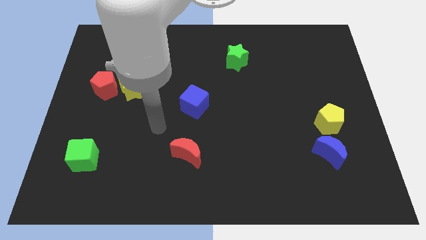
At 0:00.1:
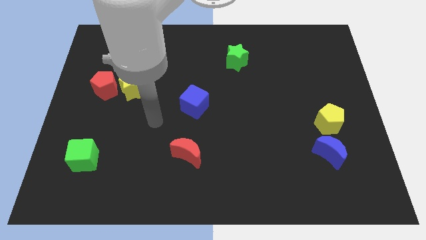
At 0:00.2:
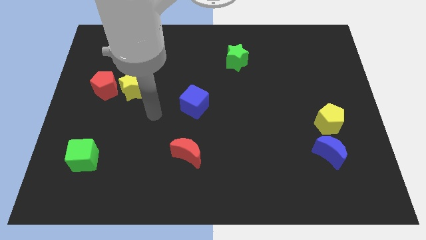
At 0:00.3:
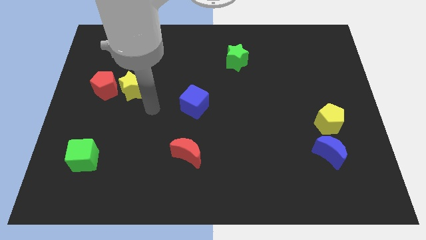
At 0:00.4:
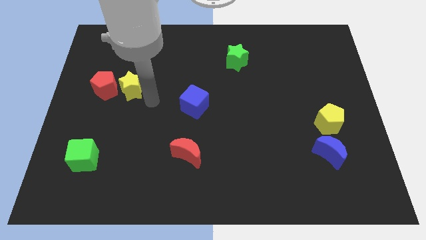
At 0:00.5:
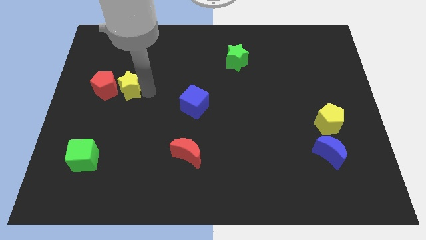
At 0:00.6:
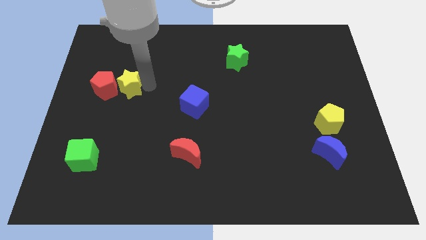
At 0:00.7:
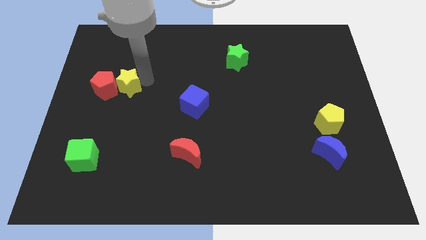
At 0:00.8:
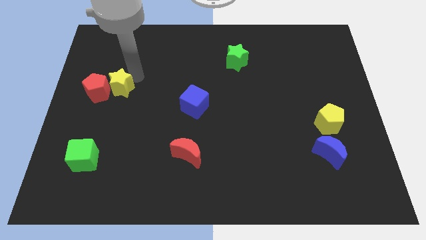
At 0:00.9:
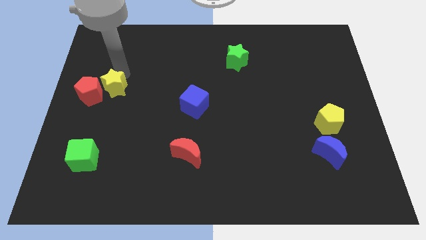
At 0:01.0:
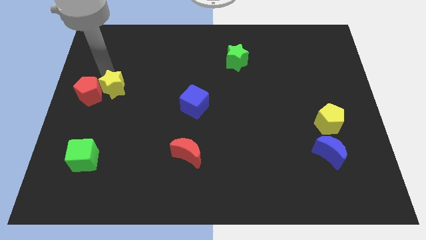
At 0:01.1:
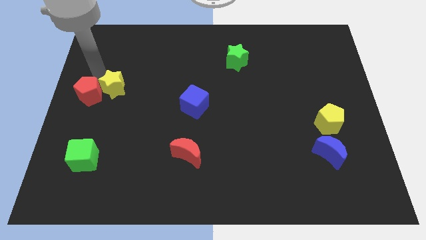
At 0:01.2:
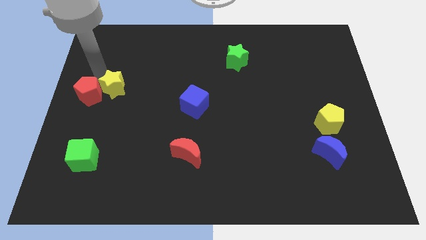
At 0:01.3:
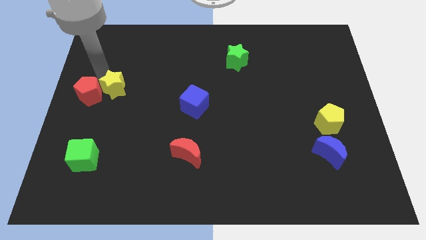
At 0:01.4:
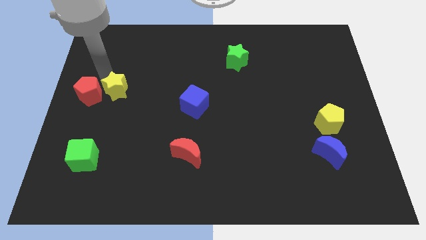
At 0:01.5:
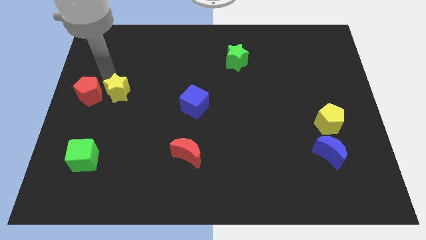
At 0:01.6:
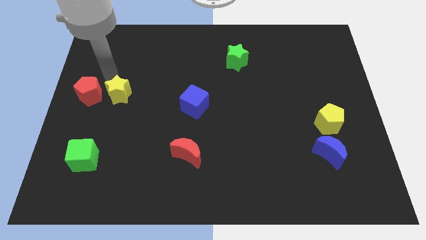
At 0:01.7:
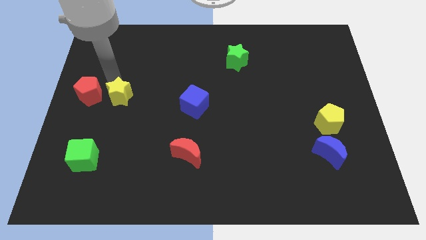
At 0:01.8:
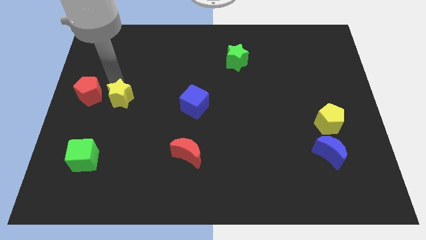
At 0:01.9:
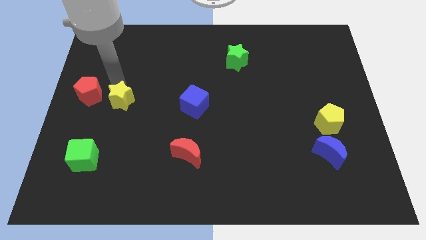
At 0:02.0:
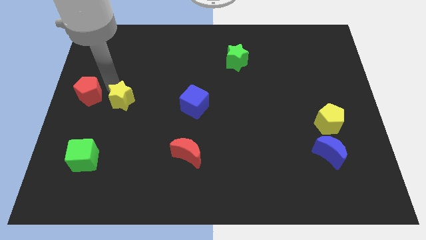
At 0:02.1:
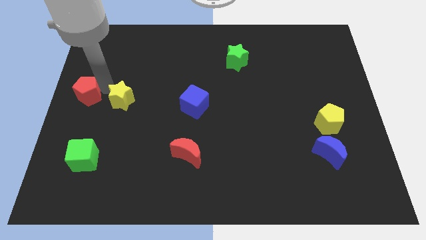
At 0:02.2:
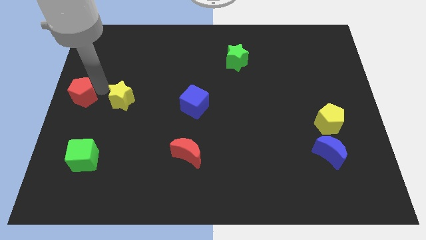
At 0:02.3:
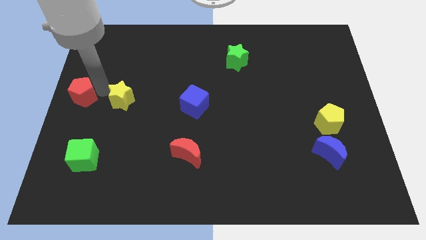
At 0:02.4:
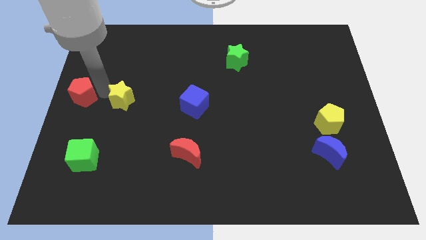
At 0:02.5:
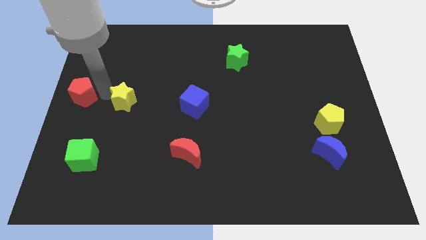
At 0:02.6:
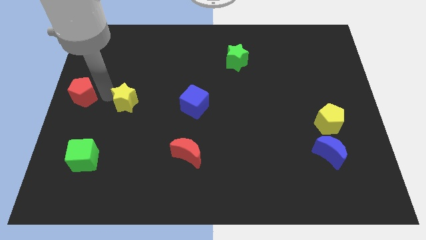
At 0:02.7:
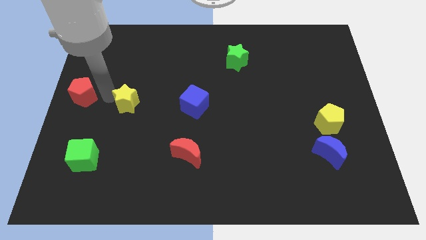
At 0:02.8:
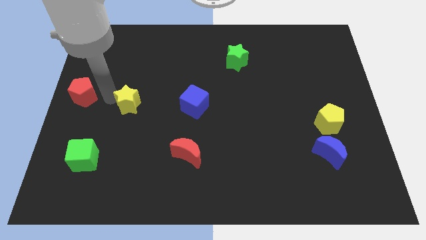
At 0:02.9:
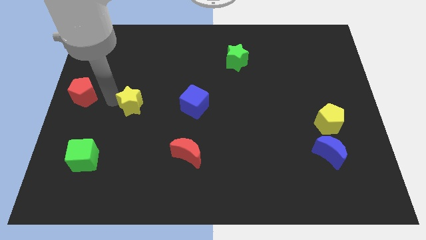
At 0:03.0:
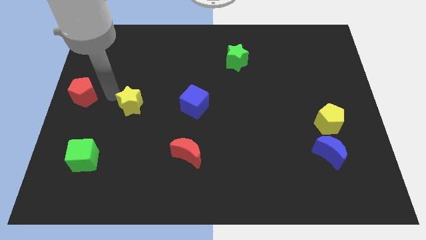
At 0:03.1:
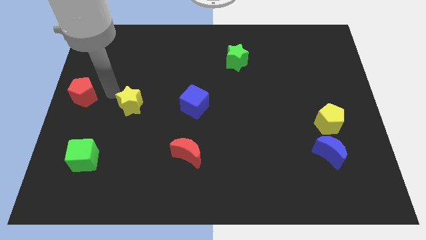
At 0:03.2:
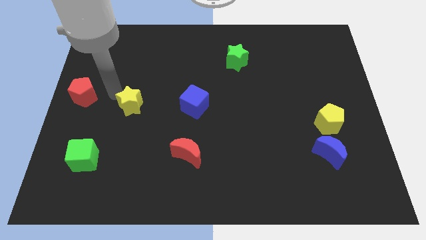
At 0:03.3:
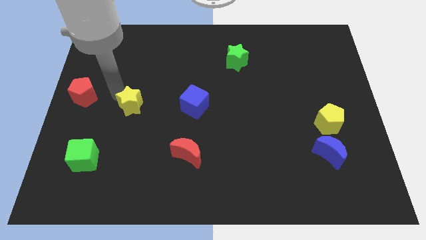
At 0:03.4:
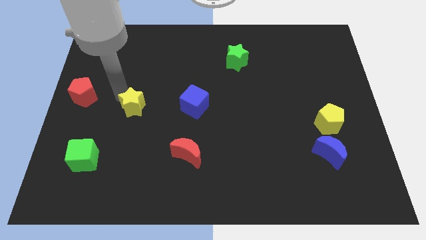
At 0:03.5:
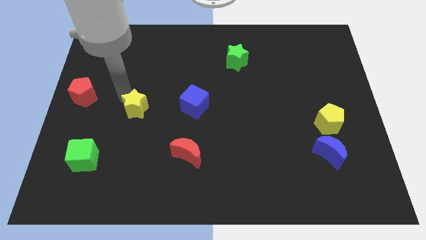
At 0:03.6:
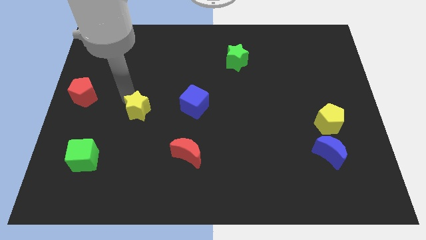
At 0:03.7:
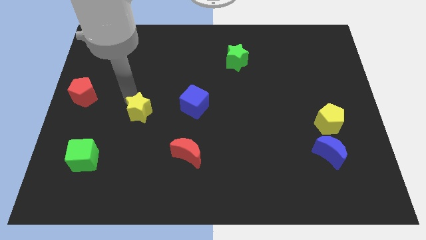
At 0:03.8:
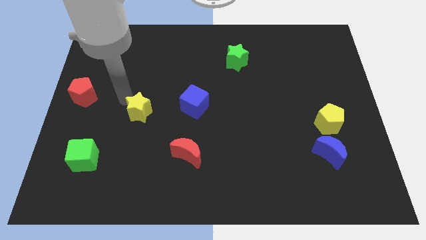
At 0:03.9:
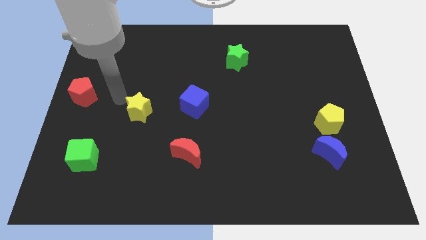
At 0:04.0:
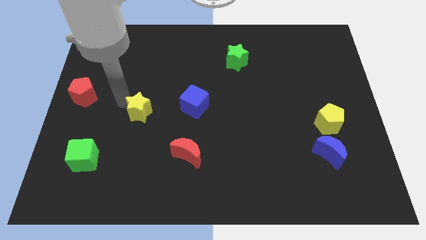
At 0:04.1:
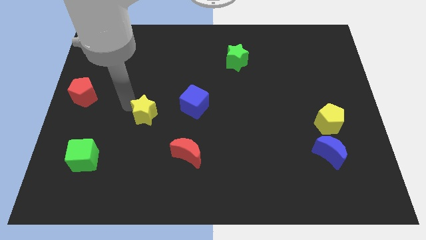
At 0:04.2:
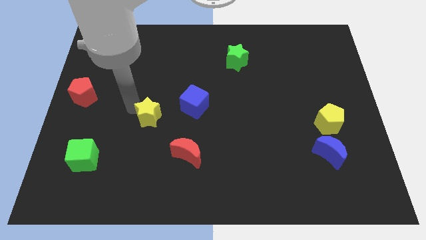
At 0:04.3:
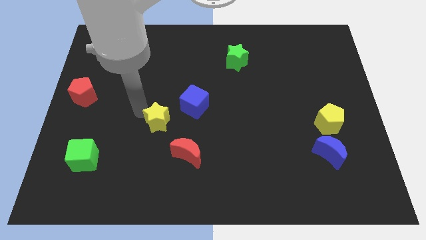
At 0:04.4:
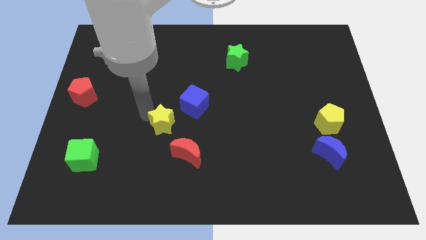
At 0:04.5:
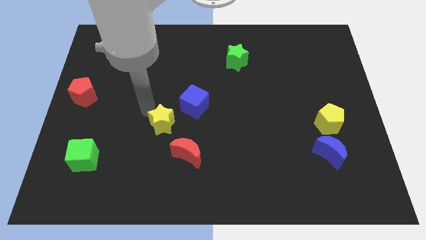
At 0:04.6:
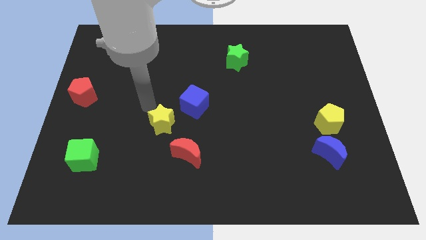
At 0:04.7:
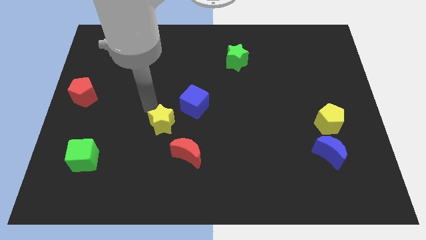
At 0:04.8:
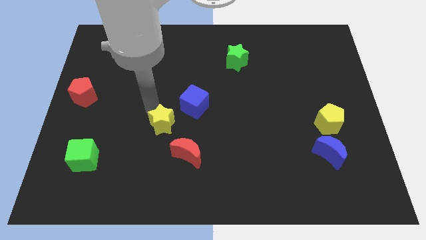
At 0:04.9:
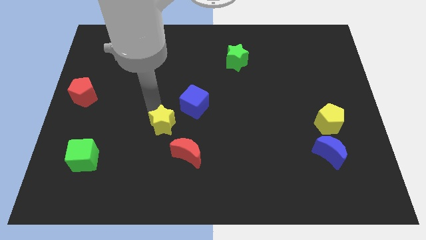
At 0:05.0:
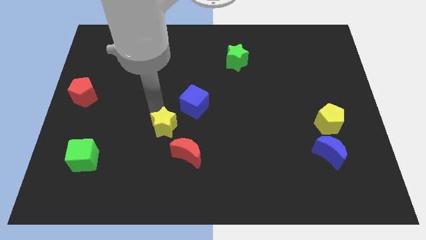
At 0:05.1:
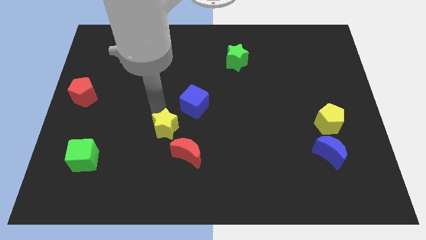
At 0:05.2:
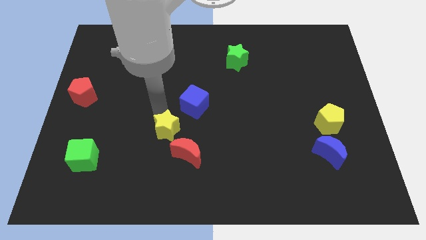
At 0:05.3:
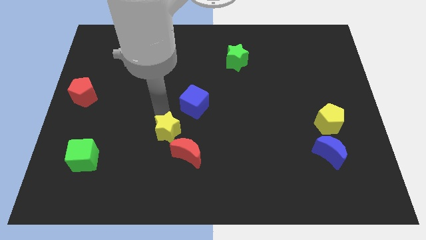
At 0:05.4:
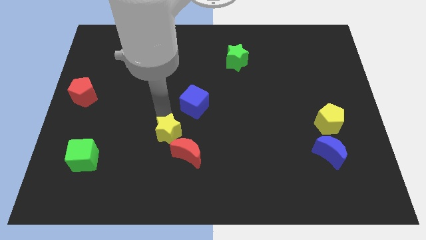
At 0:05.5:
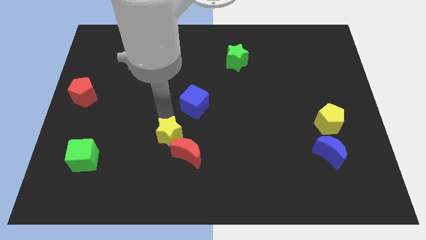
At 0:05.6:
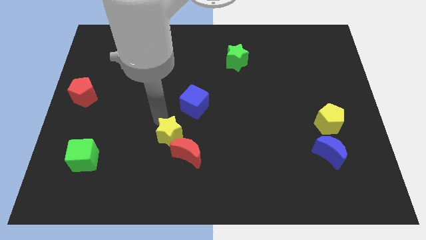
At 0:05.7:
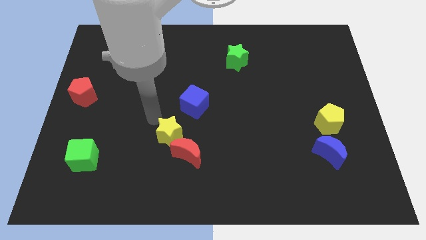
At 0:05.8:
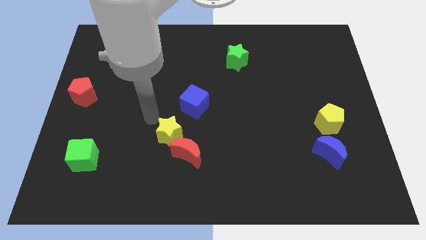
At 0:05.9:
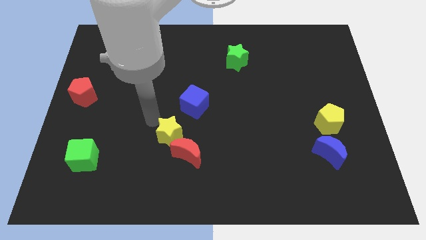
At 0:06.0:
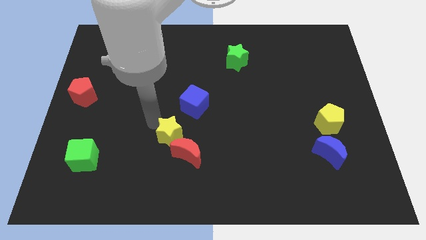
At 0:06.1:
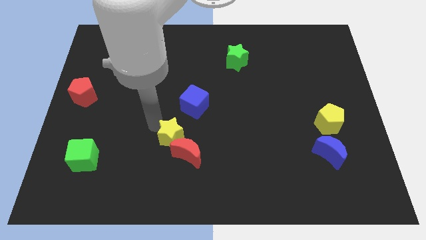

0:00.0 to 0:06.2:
put the yellow star next to the red moon

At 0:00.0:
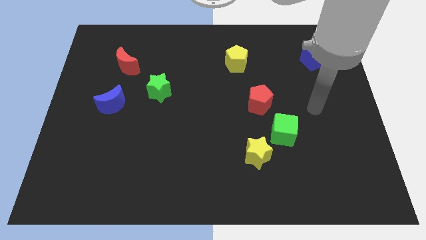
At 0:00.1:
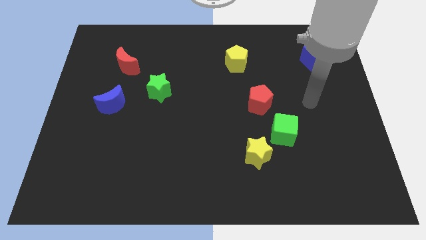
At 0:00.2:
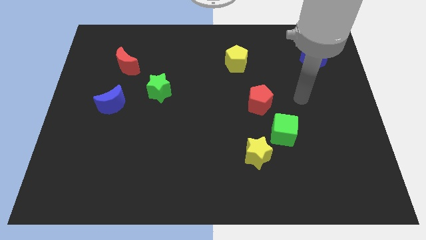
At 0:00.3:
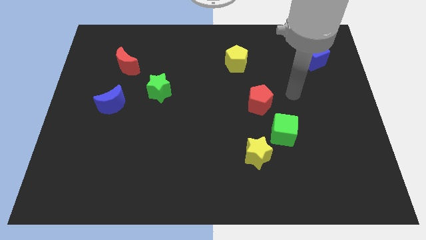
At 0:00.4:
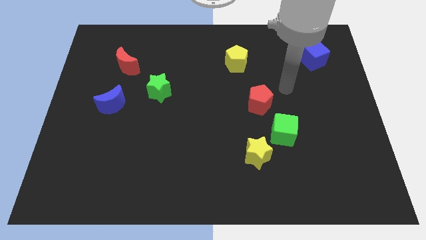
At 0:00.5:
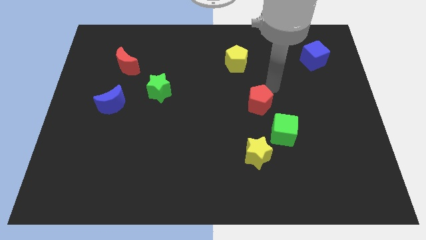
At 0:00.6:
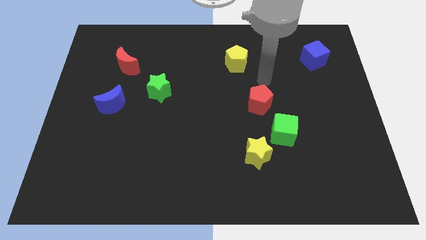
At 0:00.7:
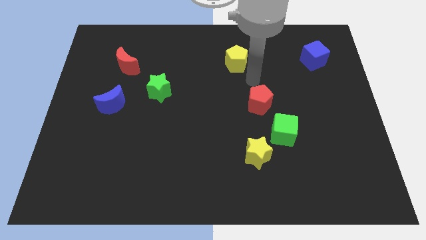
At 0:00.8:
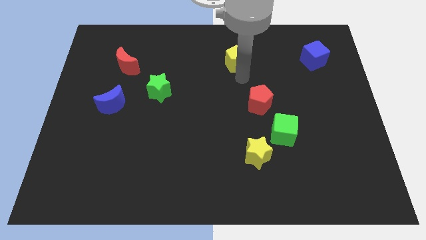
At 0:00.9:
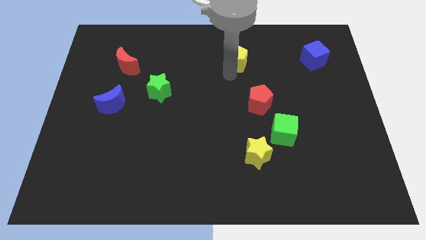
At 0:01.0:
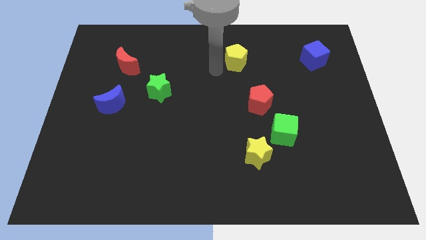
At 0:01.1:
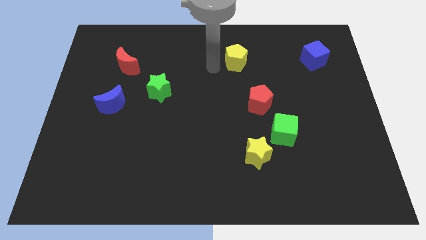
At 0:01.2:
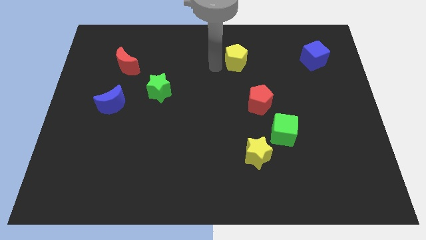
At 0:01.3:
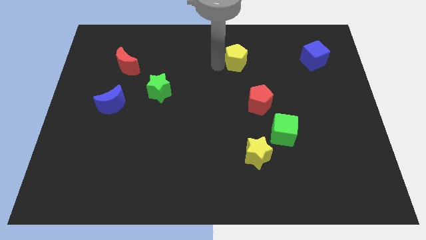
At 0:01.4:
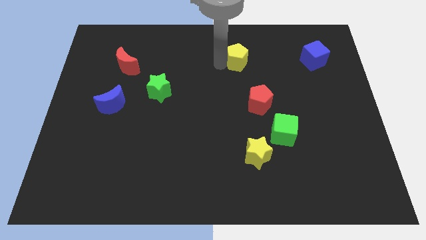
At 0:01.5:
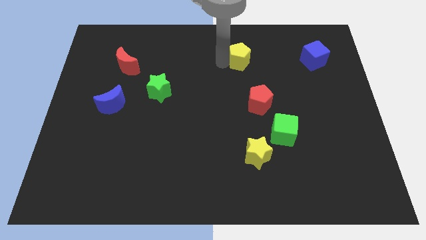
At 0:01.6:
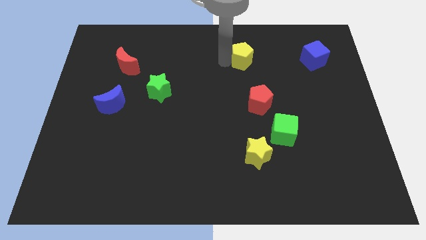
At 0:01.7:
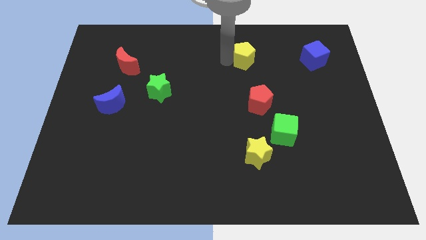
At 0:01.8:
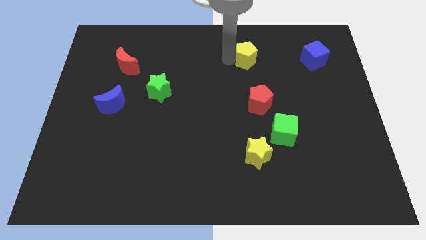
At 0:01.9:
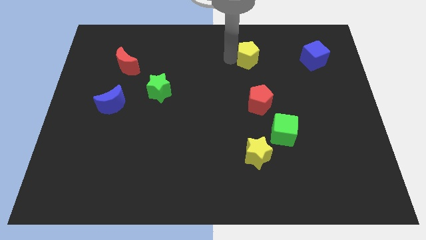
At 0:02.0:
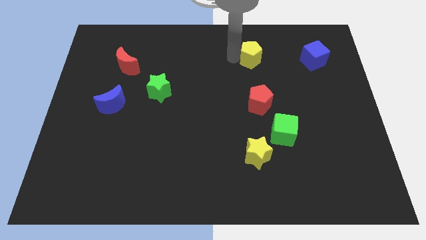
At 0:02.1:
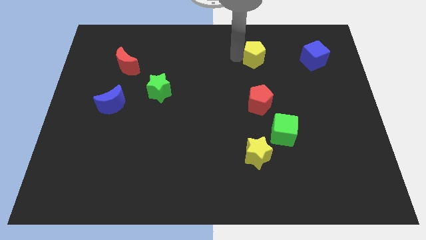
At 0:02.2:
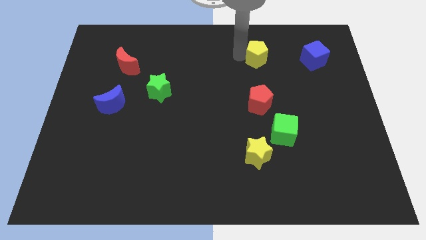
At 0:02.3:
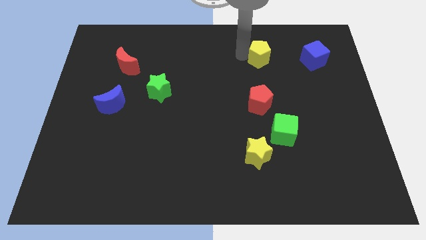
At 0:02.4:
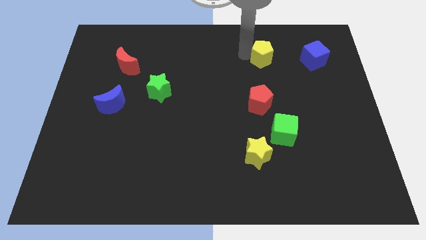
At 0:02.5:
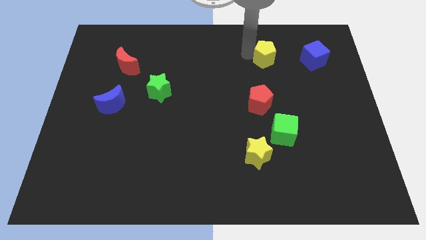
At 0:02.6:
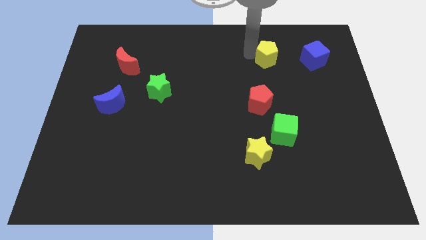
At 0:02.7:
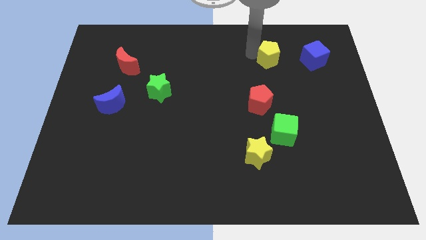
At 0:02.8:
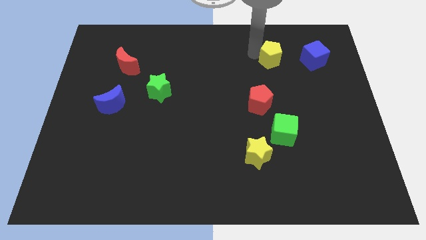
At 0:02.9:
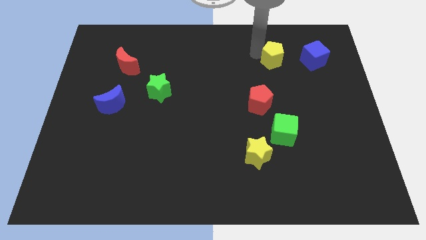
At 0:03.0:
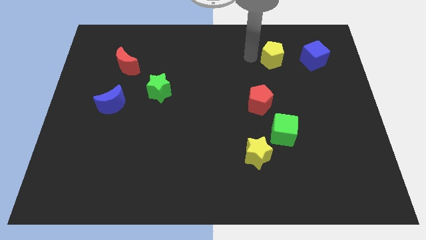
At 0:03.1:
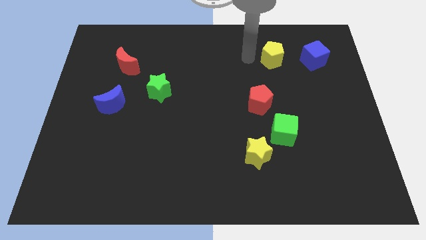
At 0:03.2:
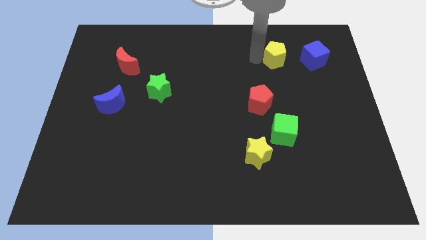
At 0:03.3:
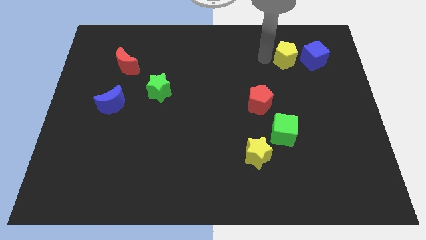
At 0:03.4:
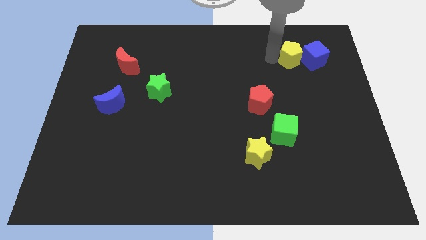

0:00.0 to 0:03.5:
slide the yellow pentagon to the blue cube
